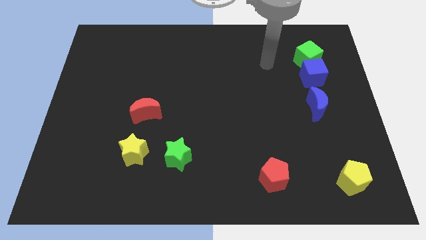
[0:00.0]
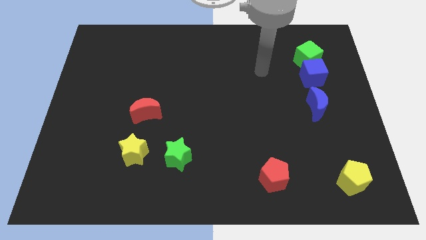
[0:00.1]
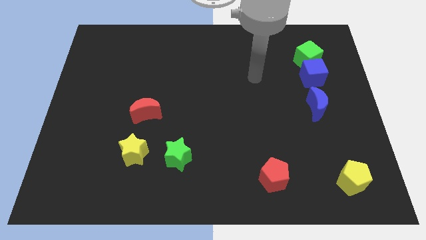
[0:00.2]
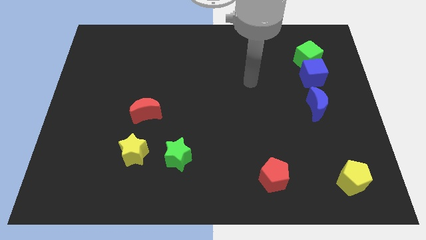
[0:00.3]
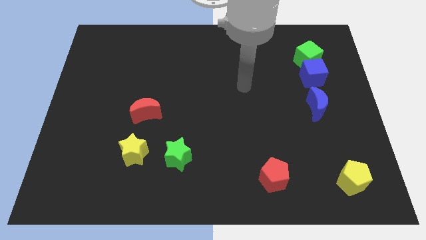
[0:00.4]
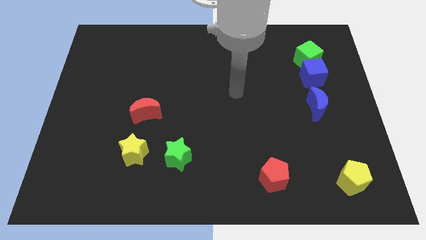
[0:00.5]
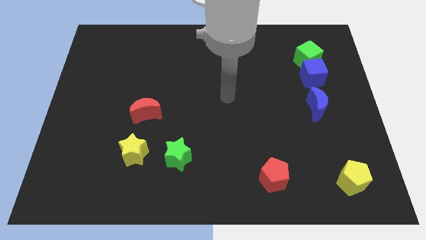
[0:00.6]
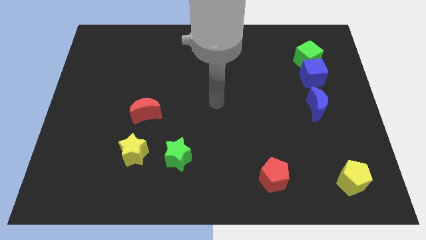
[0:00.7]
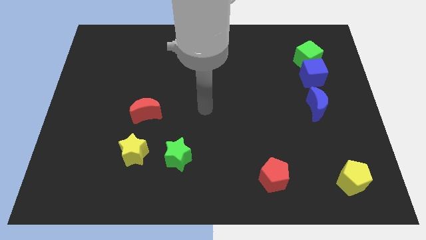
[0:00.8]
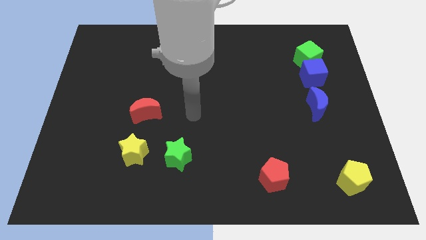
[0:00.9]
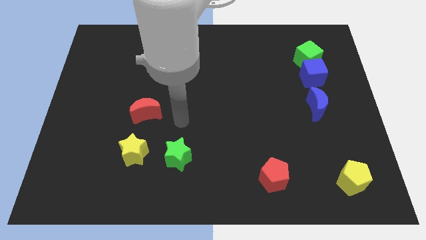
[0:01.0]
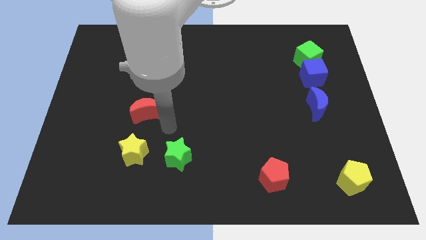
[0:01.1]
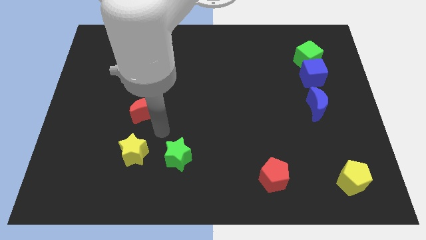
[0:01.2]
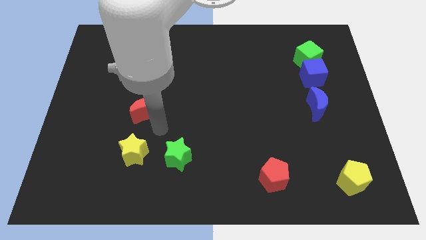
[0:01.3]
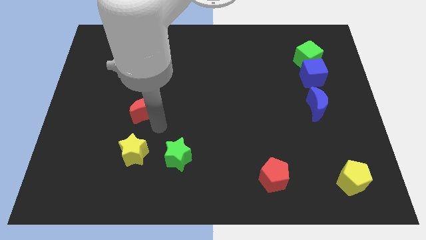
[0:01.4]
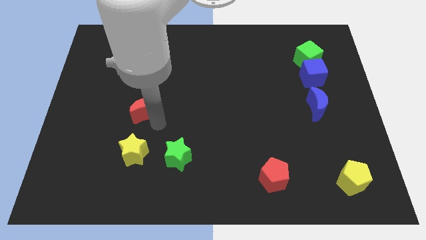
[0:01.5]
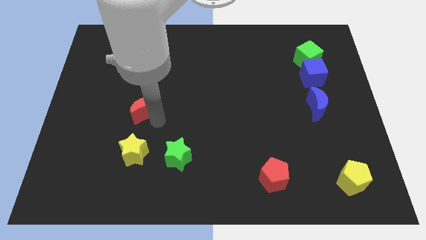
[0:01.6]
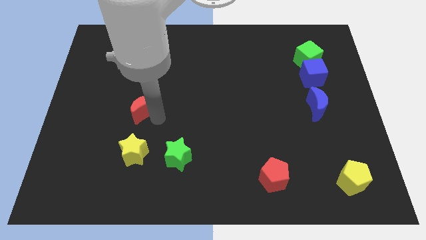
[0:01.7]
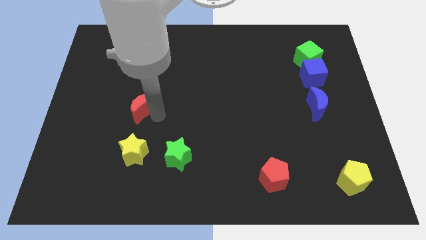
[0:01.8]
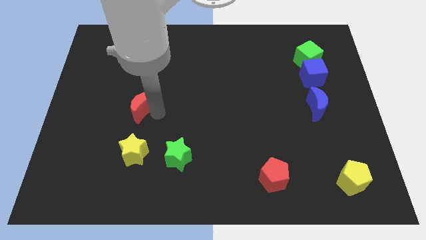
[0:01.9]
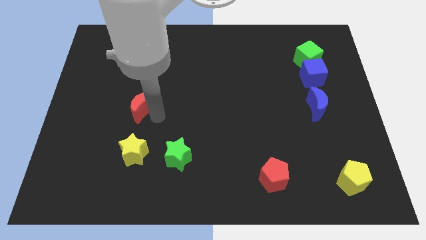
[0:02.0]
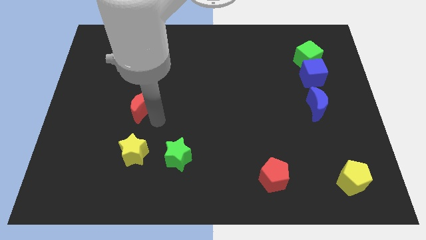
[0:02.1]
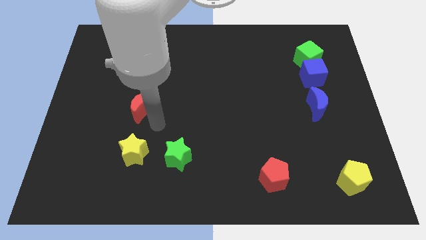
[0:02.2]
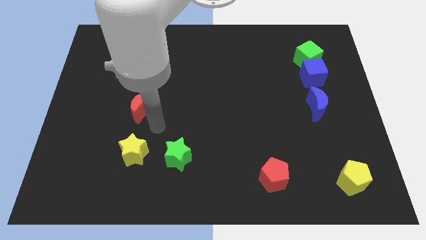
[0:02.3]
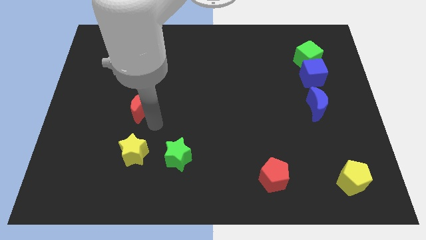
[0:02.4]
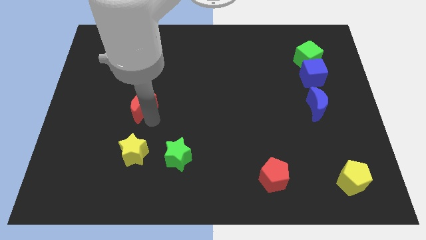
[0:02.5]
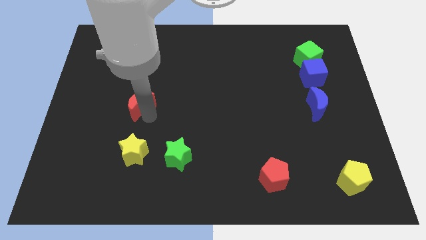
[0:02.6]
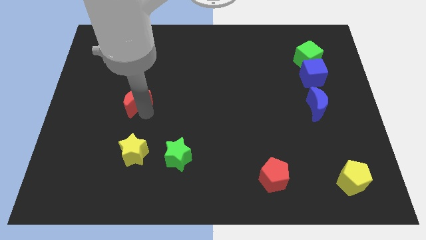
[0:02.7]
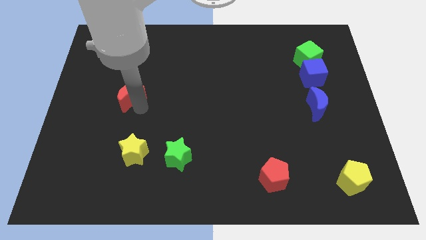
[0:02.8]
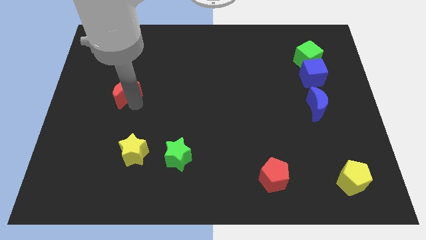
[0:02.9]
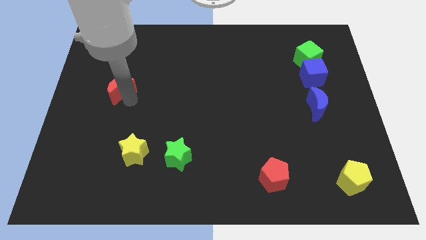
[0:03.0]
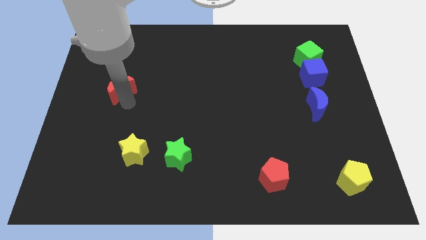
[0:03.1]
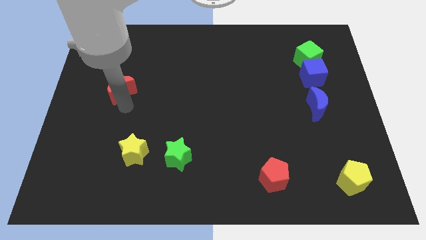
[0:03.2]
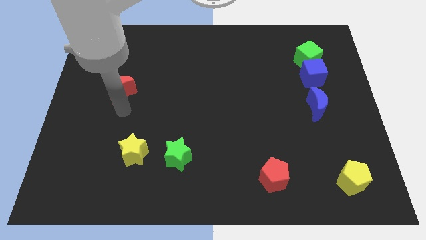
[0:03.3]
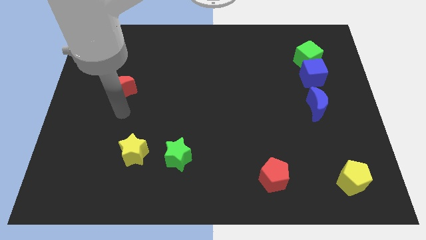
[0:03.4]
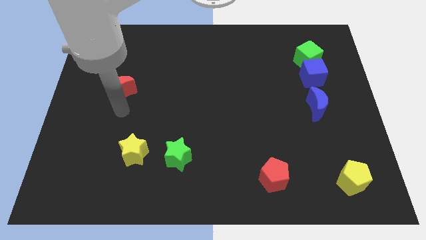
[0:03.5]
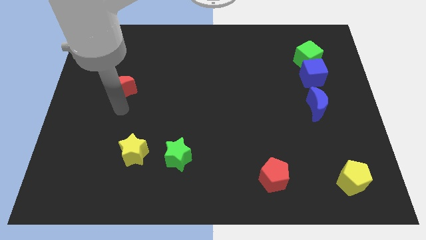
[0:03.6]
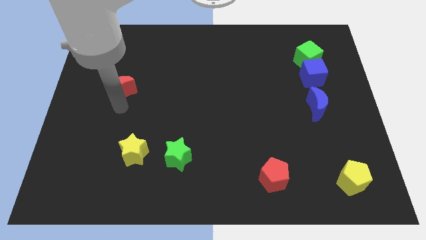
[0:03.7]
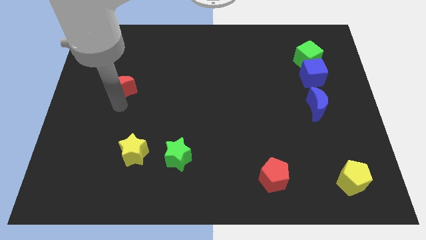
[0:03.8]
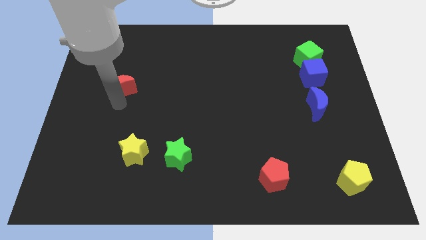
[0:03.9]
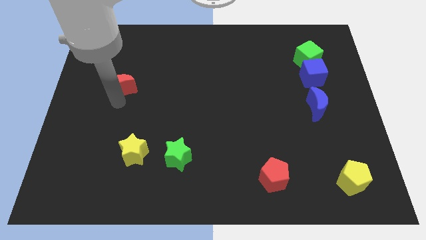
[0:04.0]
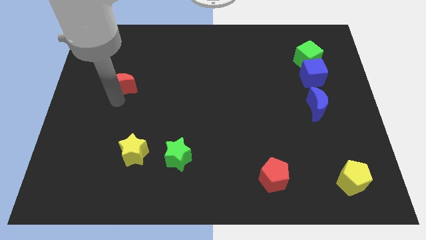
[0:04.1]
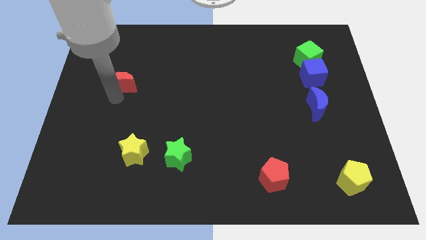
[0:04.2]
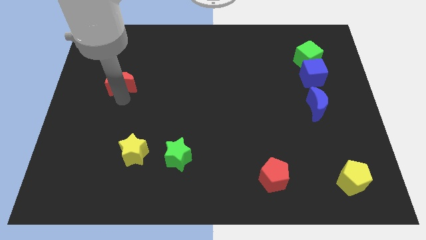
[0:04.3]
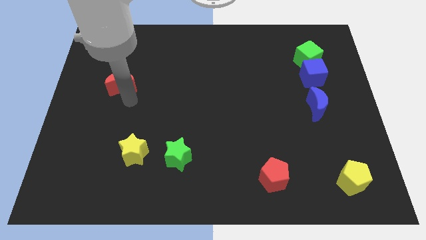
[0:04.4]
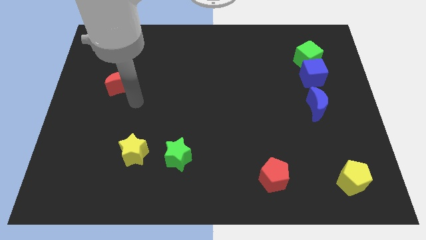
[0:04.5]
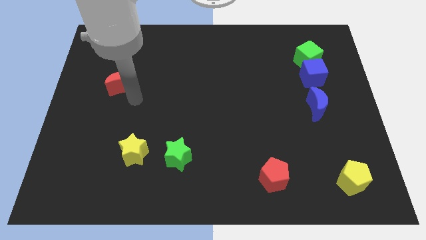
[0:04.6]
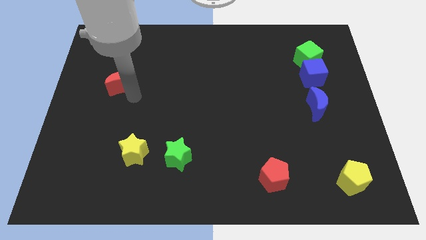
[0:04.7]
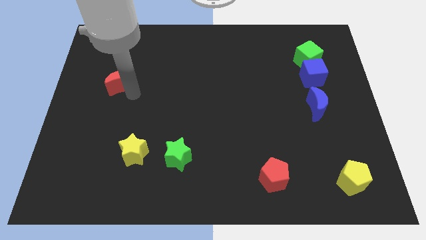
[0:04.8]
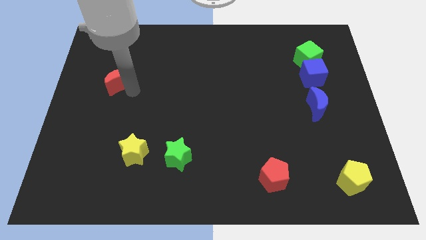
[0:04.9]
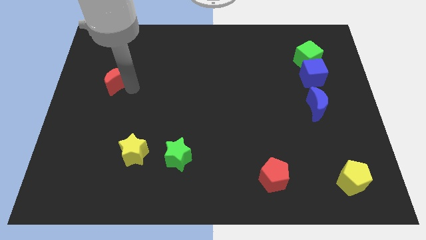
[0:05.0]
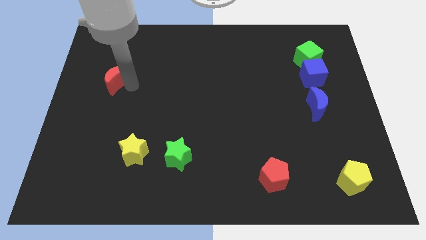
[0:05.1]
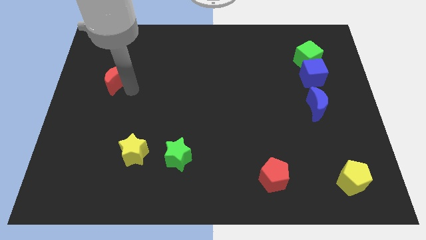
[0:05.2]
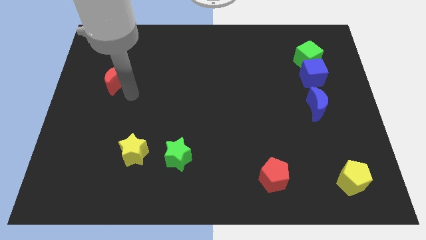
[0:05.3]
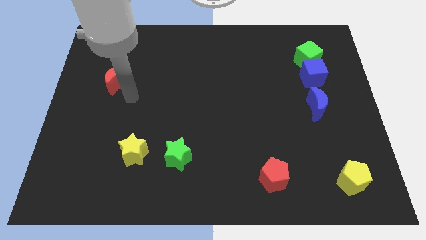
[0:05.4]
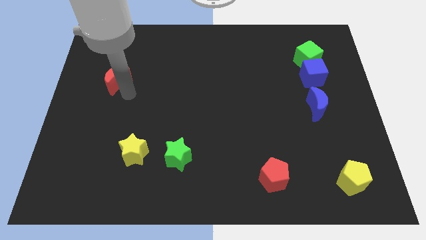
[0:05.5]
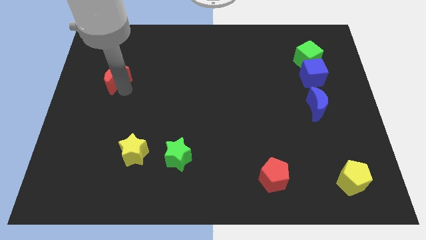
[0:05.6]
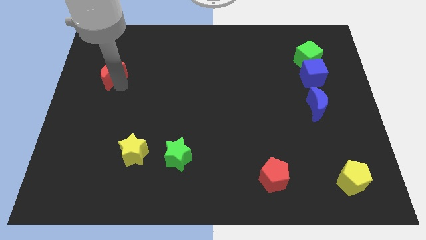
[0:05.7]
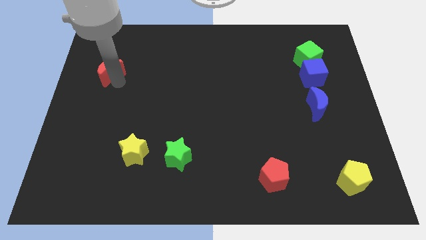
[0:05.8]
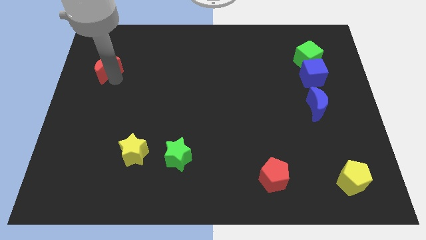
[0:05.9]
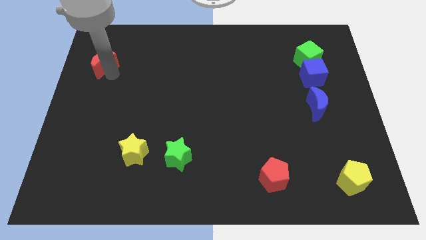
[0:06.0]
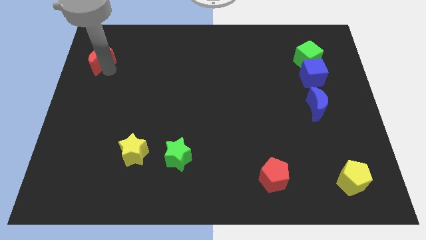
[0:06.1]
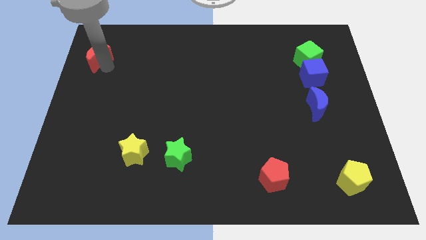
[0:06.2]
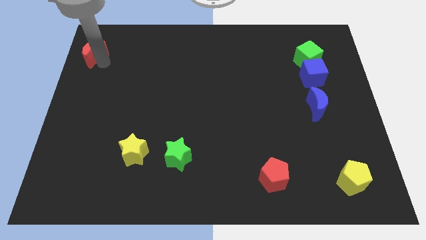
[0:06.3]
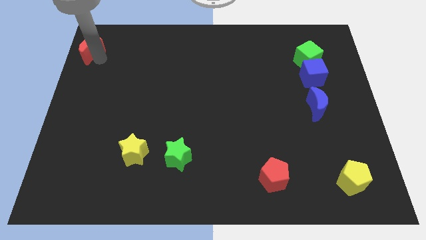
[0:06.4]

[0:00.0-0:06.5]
slide the red moon to the top left corner
